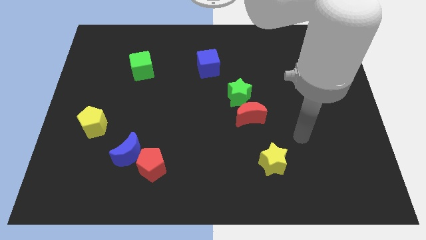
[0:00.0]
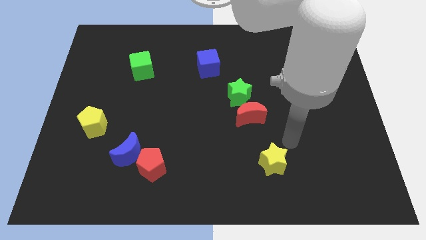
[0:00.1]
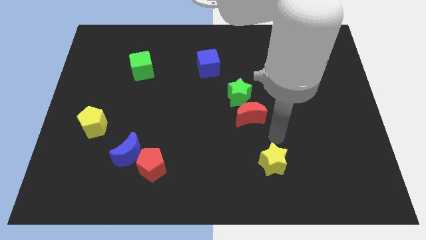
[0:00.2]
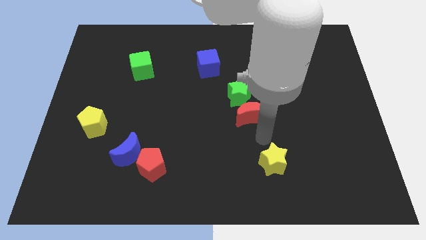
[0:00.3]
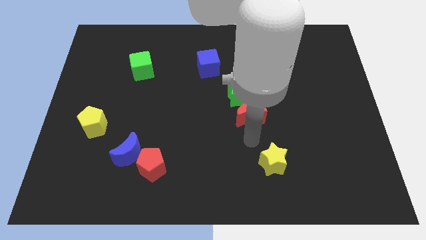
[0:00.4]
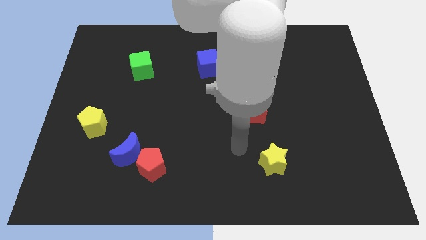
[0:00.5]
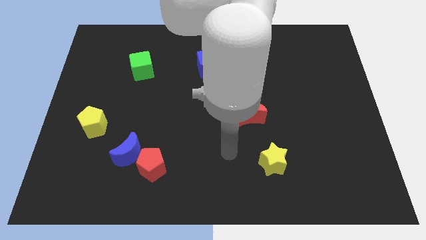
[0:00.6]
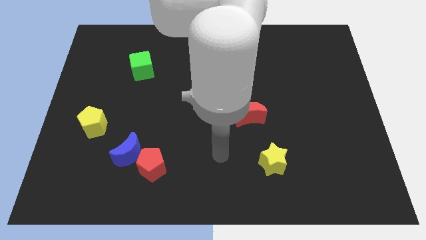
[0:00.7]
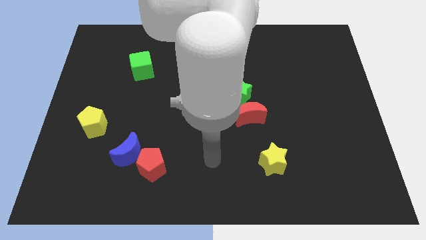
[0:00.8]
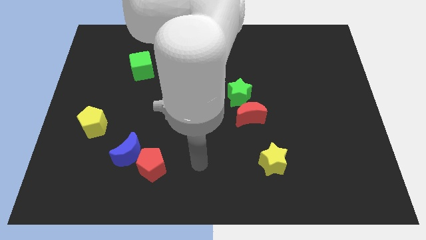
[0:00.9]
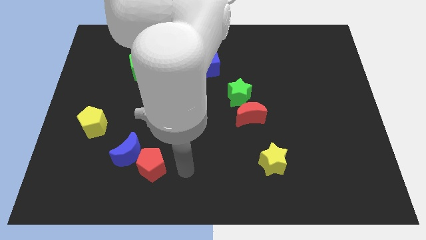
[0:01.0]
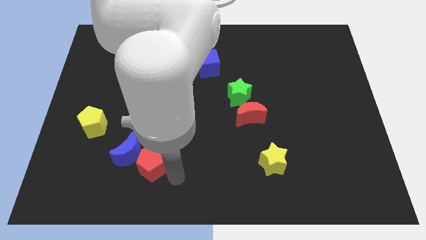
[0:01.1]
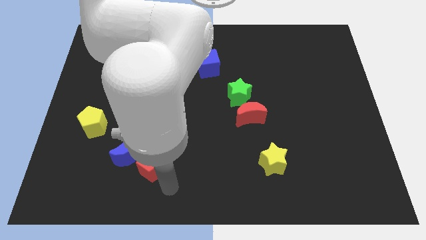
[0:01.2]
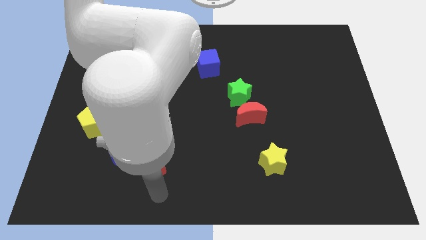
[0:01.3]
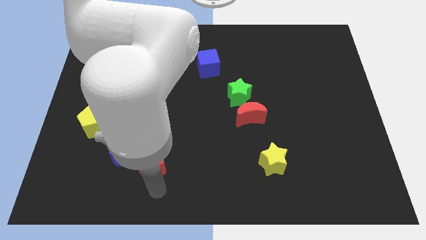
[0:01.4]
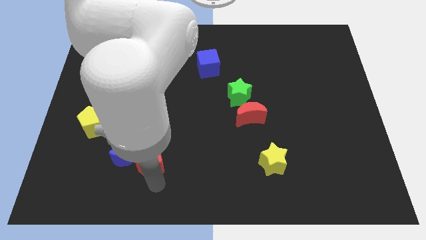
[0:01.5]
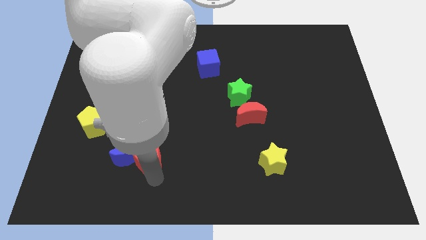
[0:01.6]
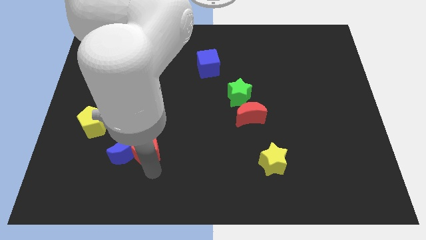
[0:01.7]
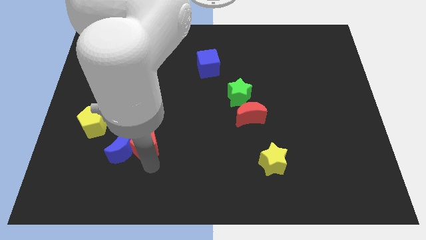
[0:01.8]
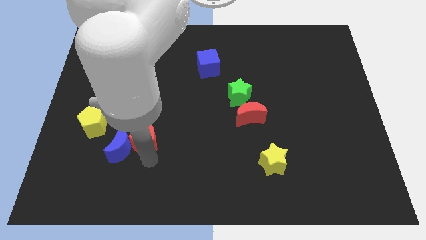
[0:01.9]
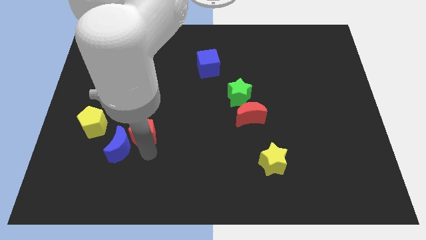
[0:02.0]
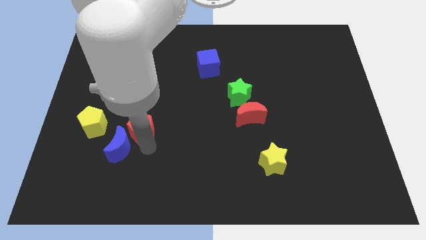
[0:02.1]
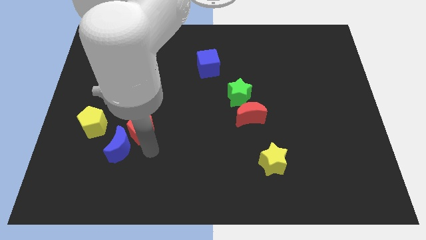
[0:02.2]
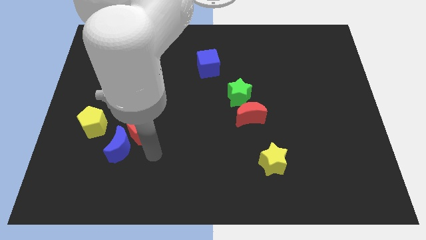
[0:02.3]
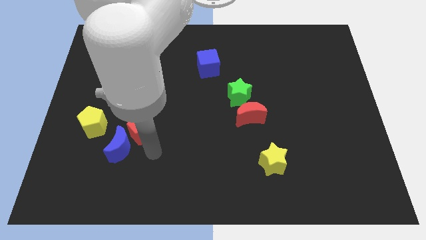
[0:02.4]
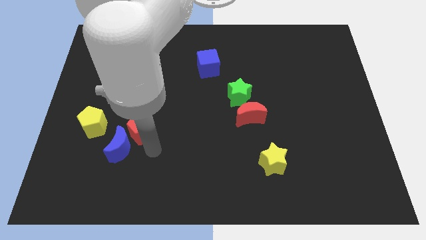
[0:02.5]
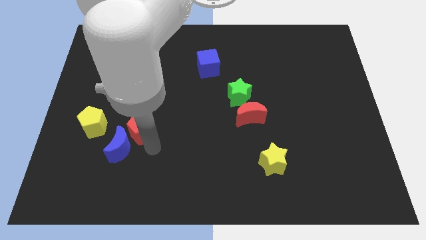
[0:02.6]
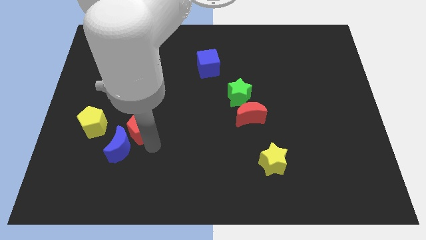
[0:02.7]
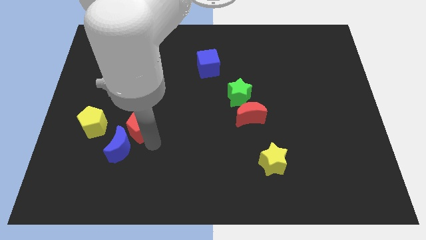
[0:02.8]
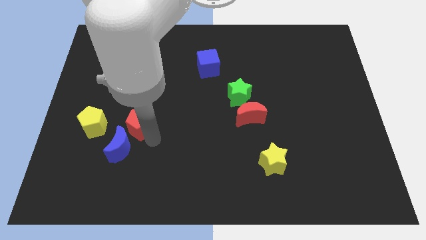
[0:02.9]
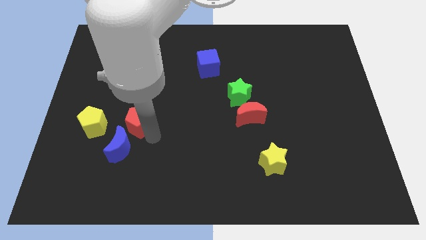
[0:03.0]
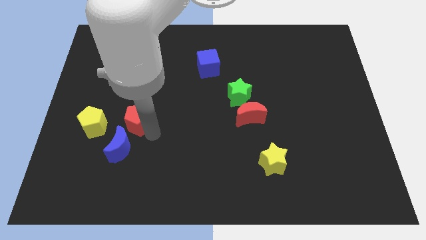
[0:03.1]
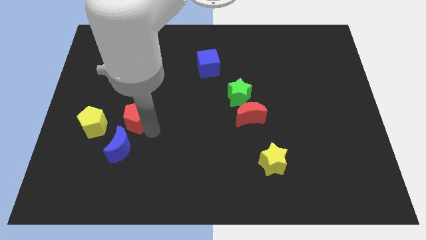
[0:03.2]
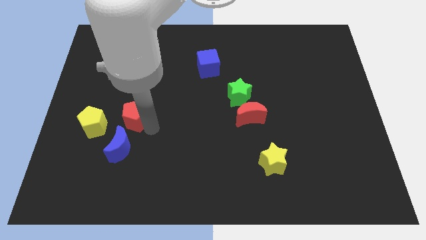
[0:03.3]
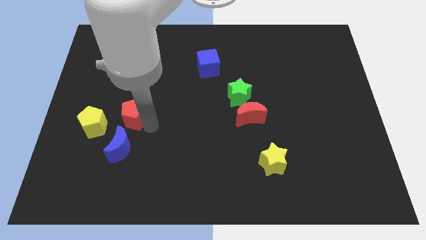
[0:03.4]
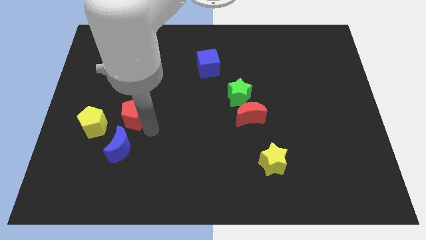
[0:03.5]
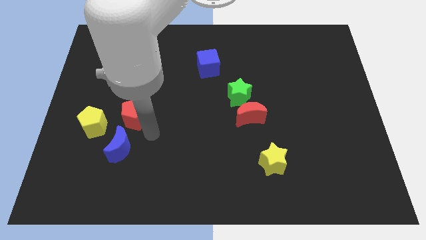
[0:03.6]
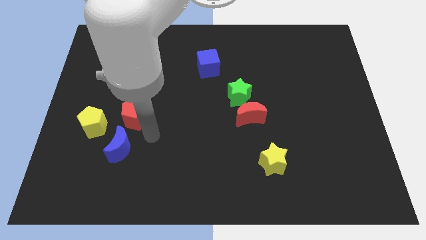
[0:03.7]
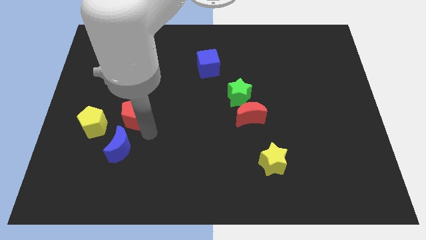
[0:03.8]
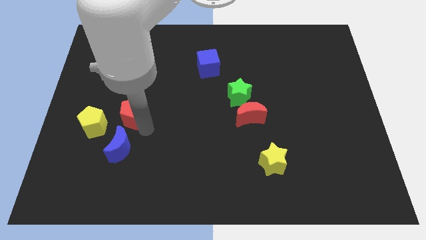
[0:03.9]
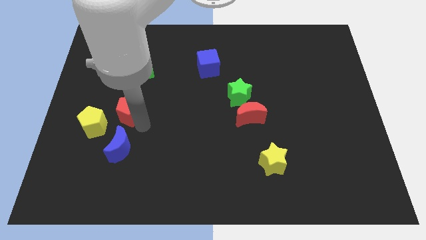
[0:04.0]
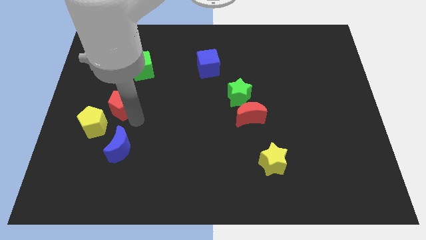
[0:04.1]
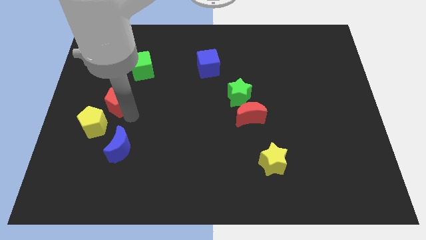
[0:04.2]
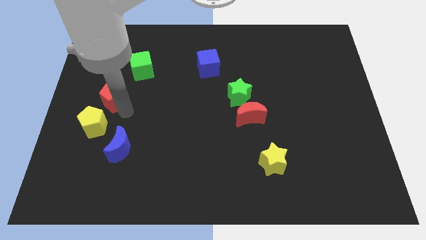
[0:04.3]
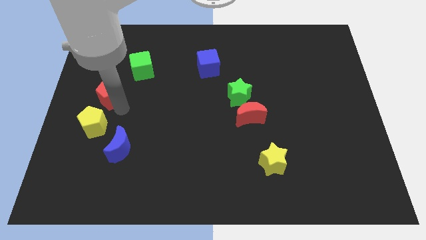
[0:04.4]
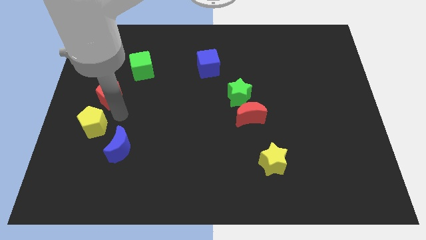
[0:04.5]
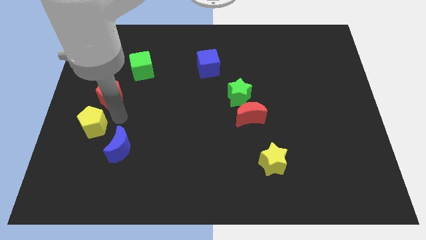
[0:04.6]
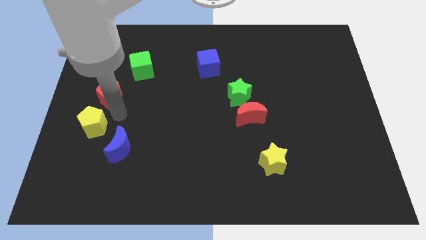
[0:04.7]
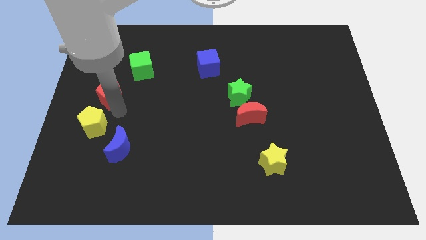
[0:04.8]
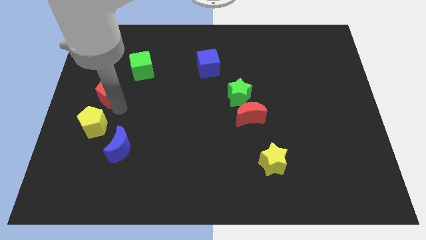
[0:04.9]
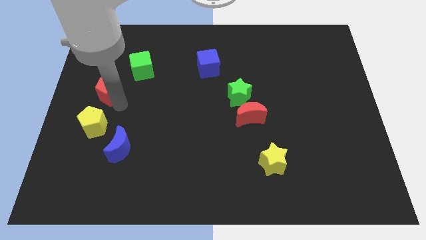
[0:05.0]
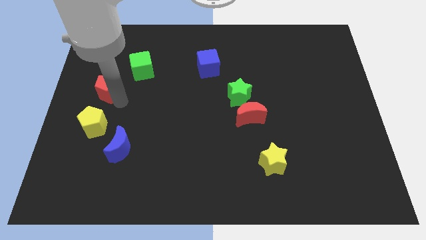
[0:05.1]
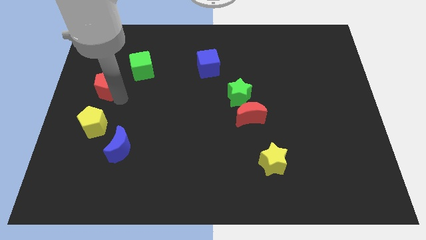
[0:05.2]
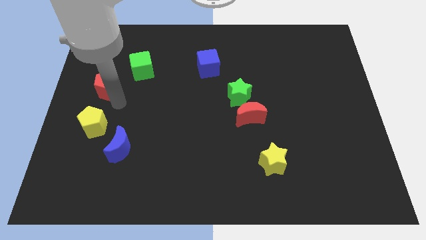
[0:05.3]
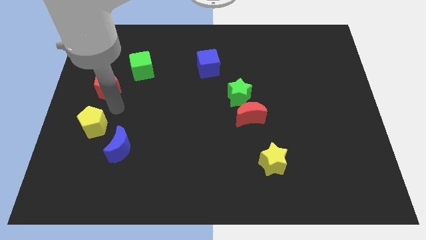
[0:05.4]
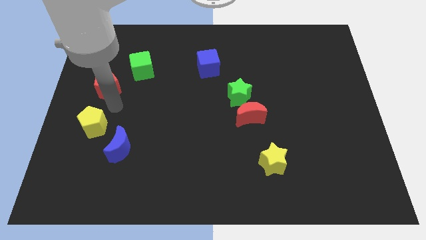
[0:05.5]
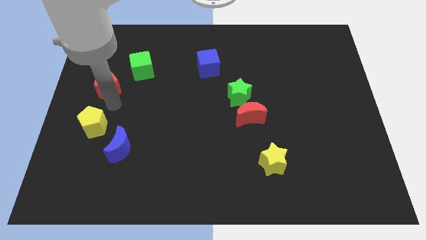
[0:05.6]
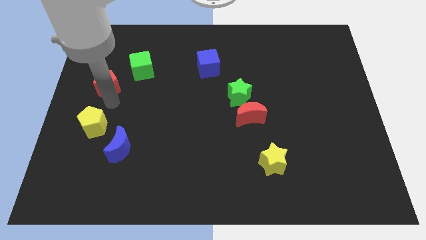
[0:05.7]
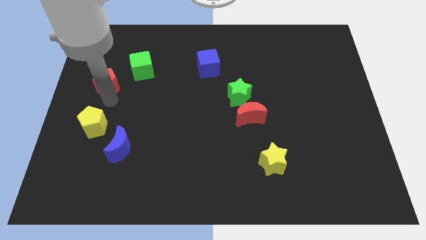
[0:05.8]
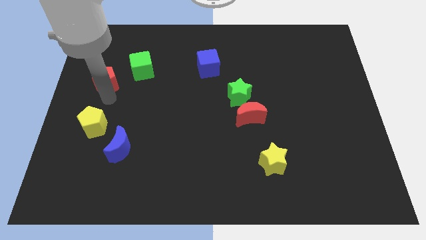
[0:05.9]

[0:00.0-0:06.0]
move the red pentagon left of the green cube

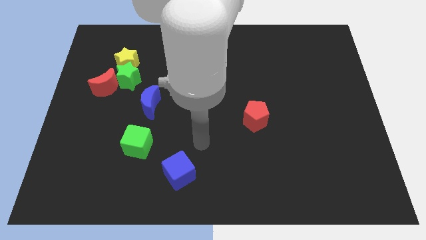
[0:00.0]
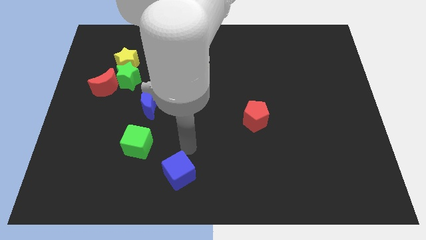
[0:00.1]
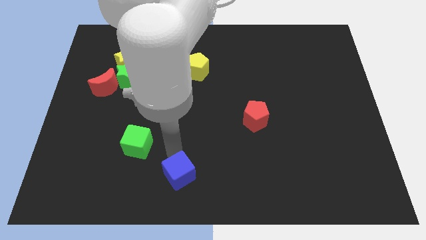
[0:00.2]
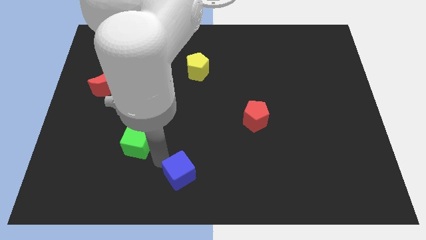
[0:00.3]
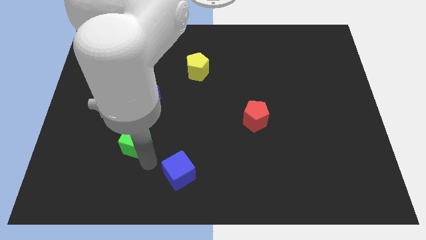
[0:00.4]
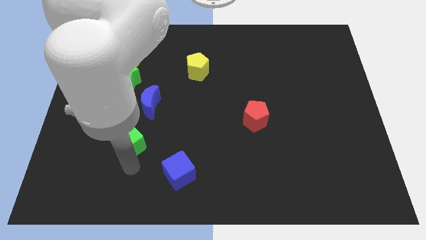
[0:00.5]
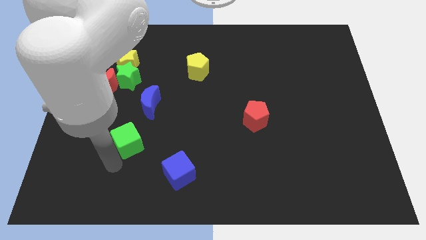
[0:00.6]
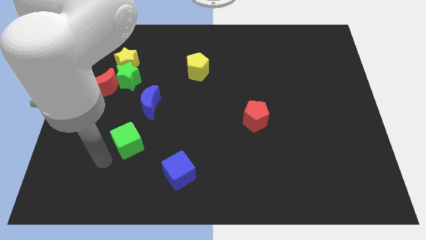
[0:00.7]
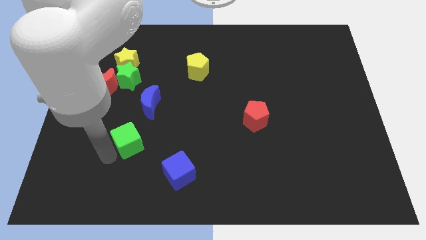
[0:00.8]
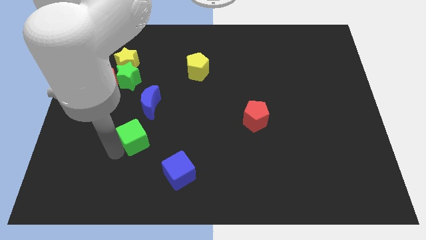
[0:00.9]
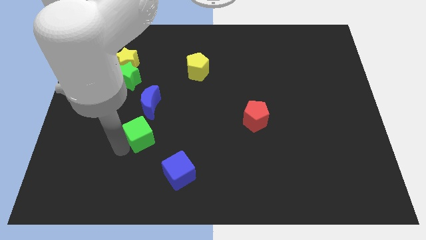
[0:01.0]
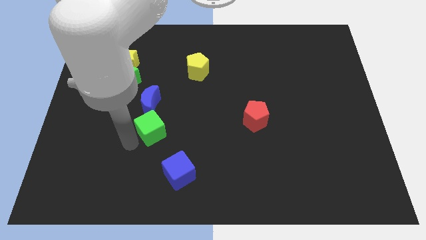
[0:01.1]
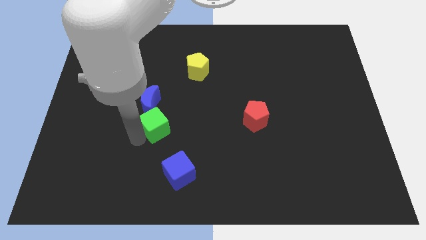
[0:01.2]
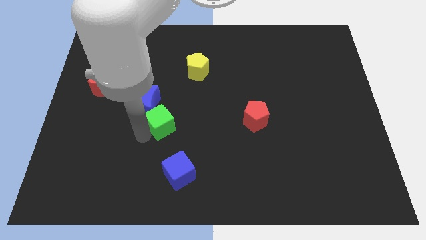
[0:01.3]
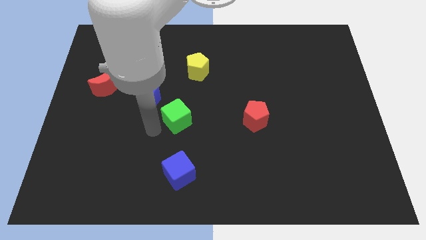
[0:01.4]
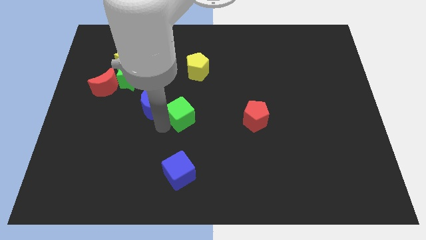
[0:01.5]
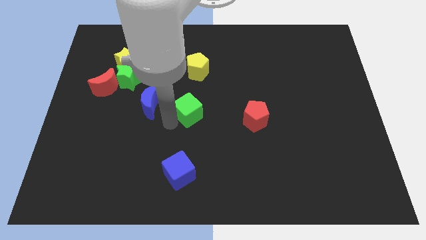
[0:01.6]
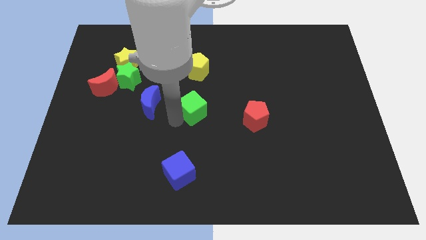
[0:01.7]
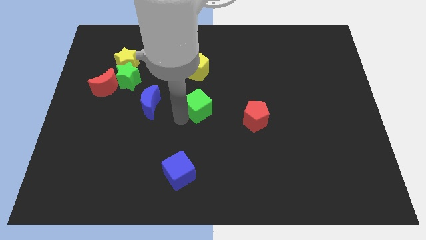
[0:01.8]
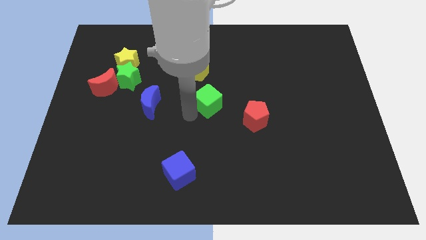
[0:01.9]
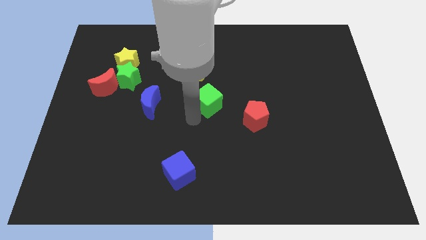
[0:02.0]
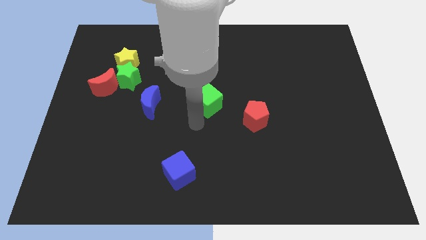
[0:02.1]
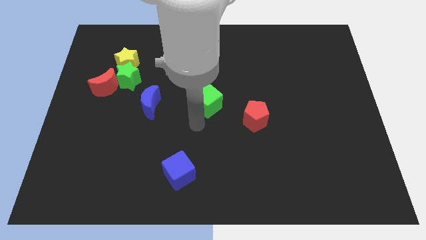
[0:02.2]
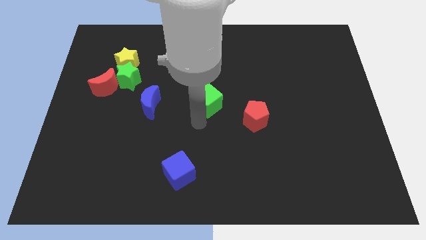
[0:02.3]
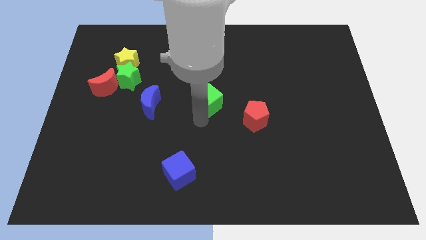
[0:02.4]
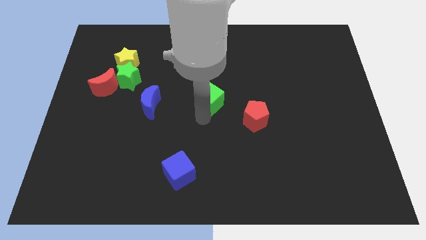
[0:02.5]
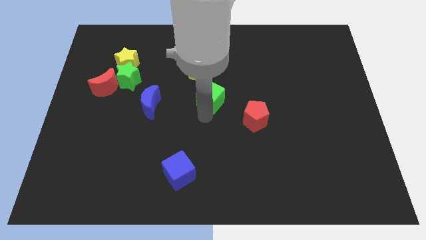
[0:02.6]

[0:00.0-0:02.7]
slide the green cube to the bottom right side of the yellow pentagon
